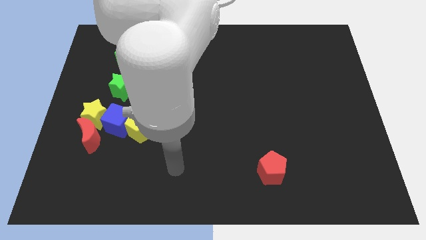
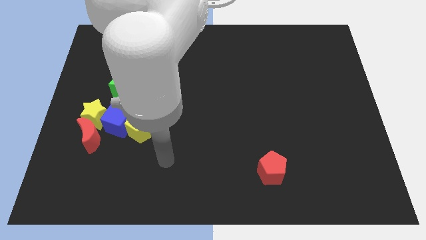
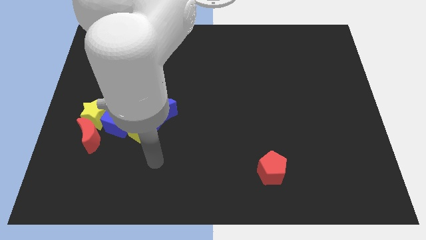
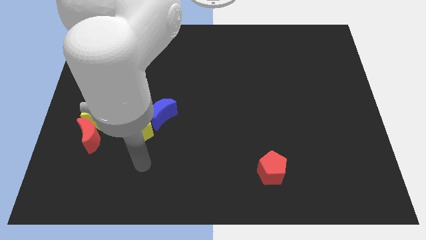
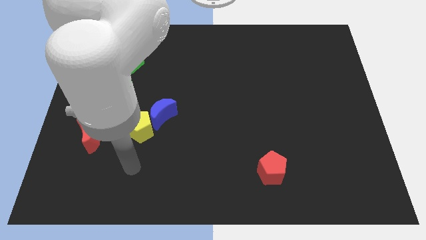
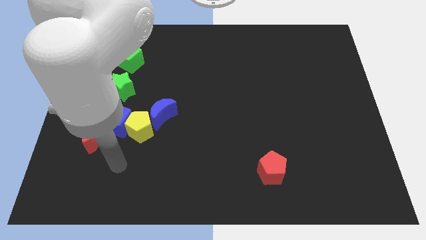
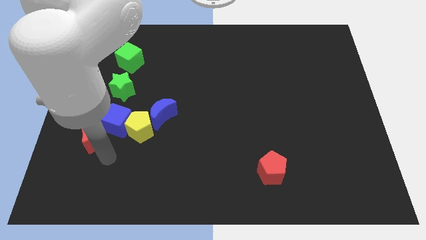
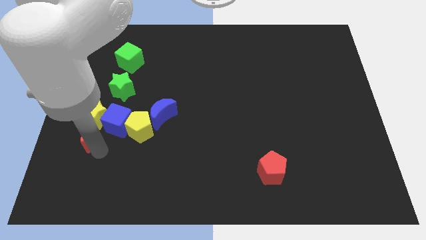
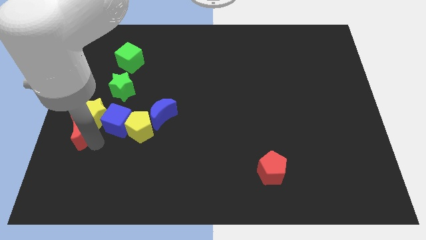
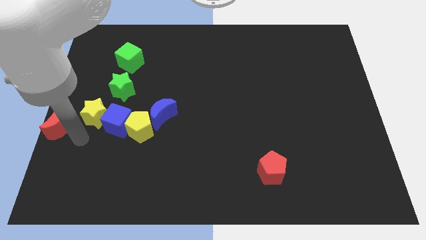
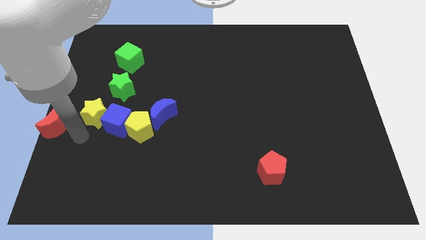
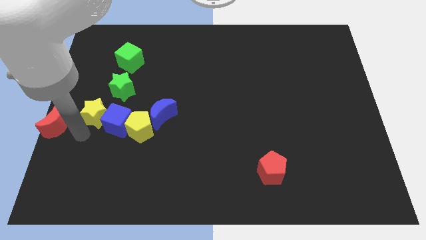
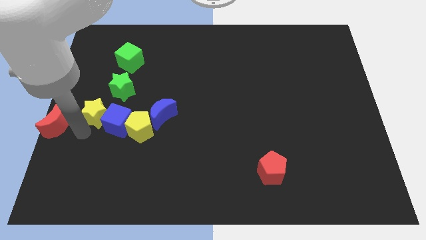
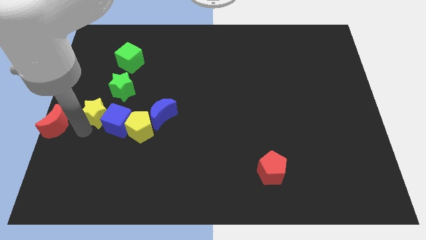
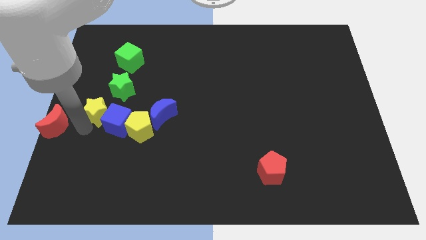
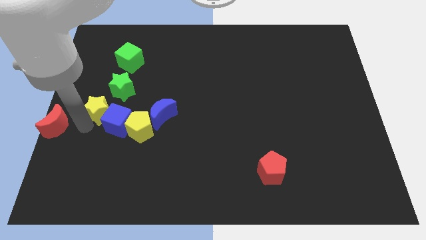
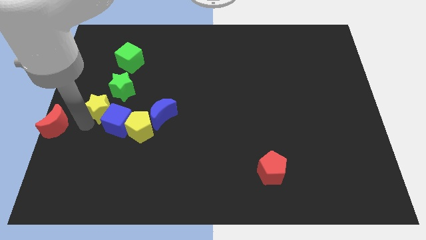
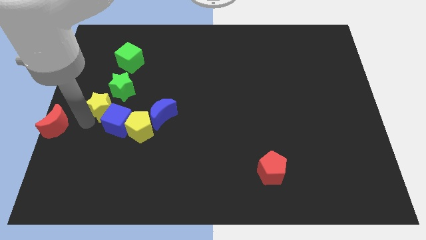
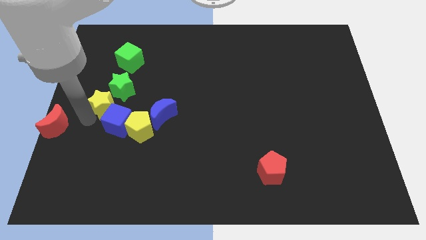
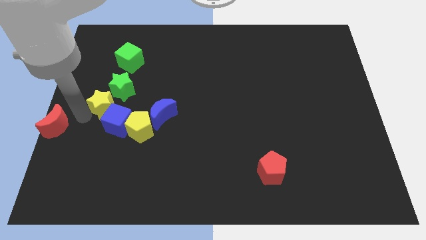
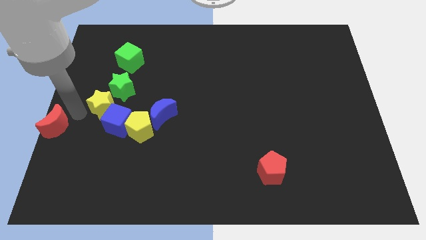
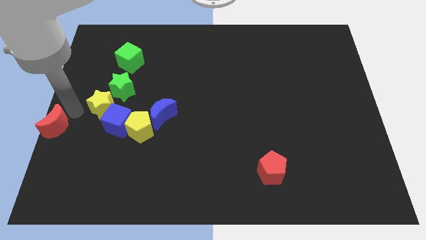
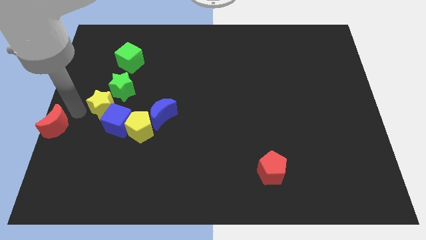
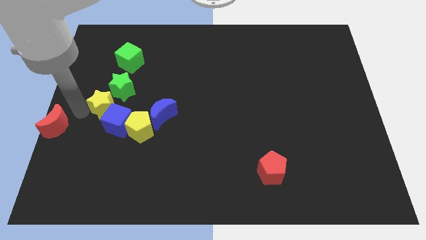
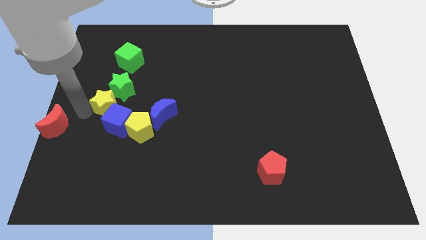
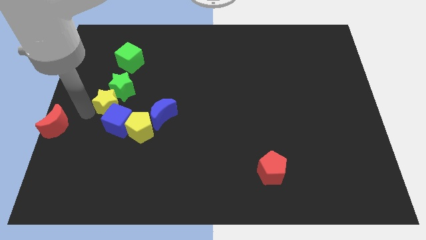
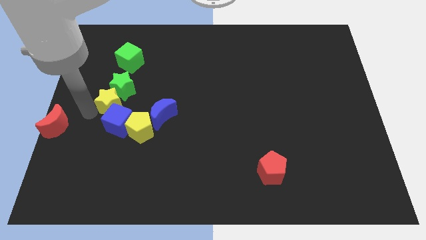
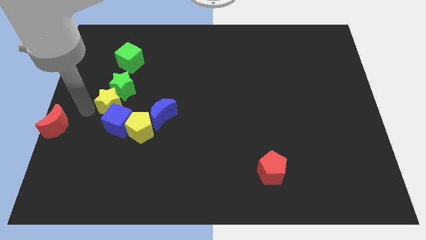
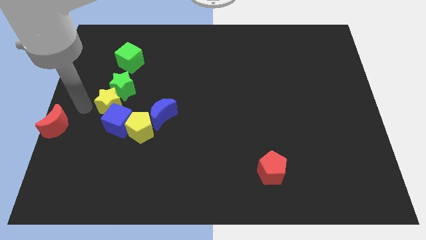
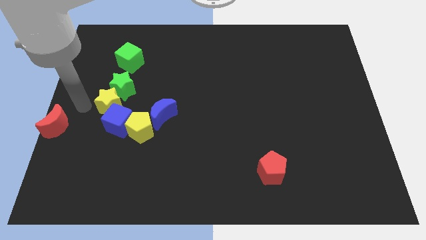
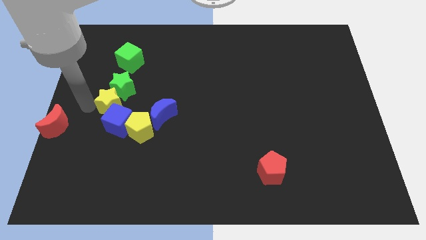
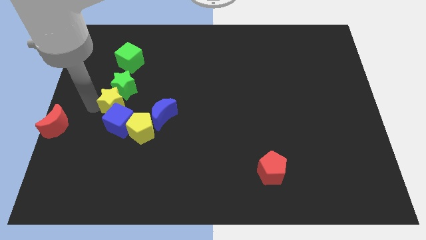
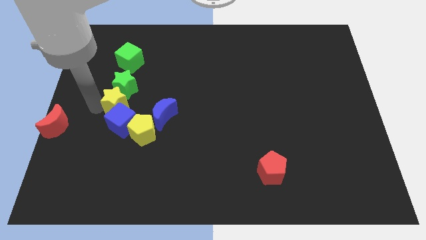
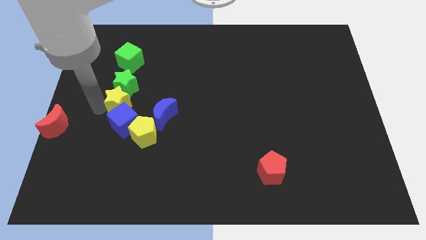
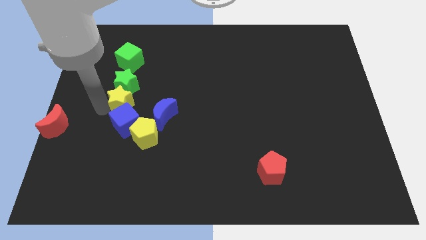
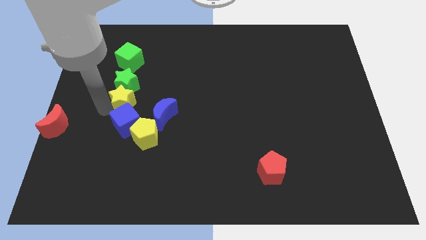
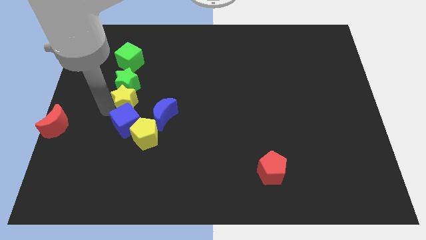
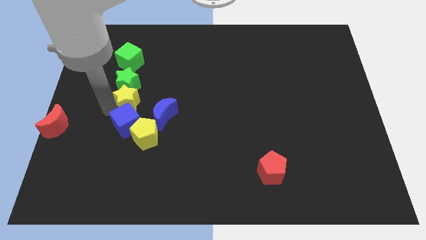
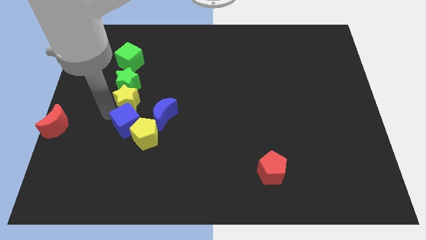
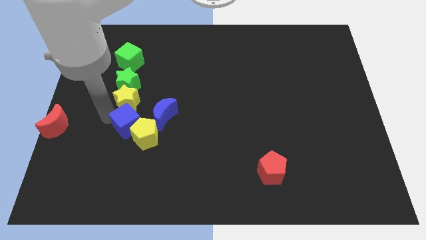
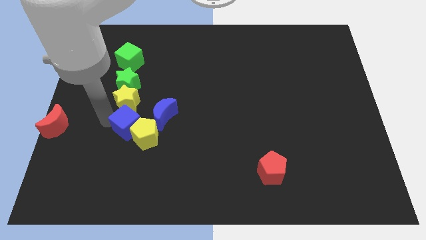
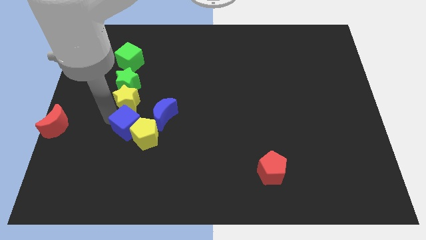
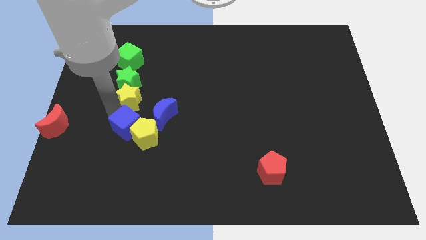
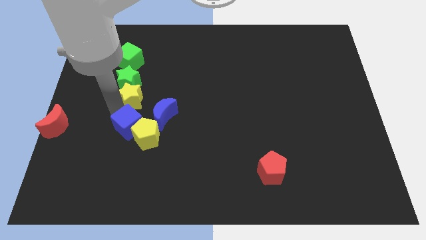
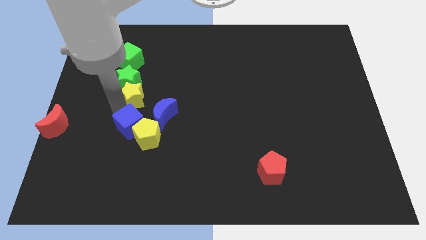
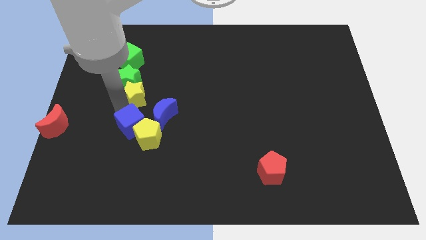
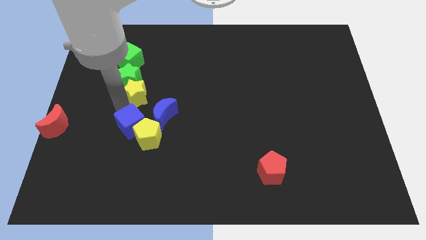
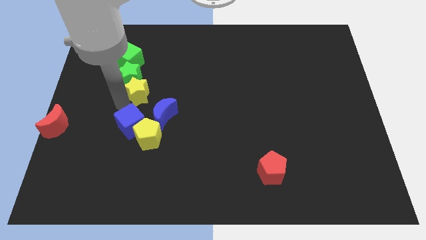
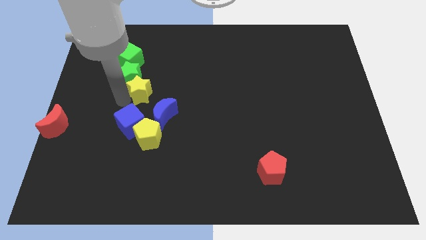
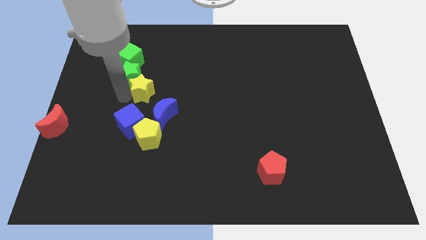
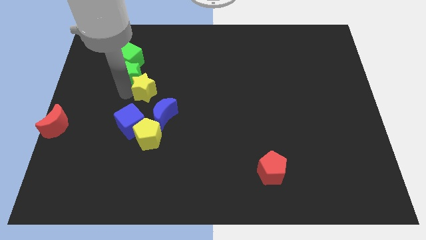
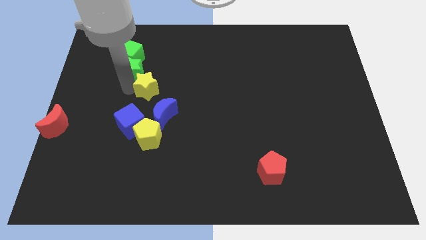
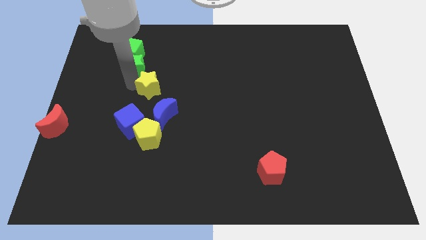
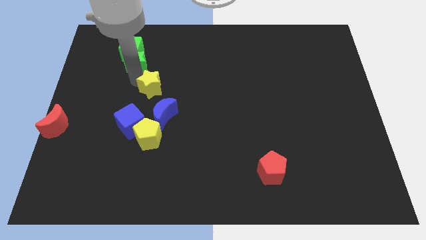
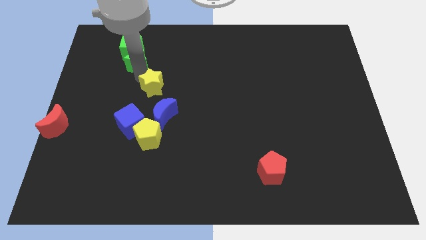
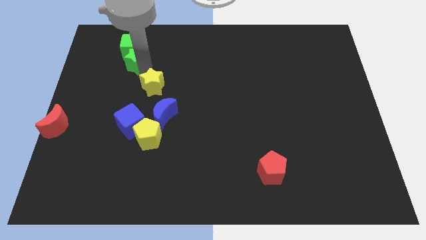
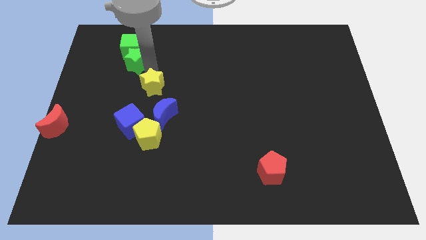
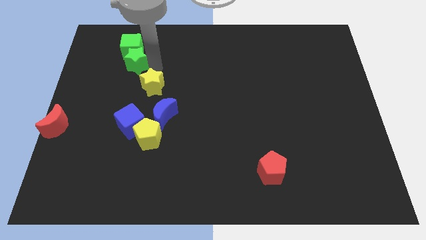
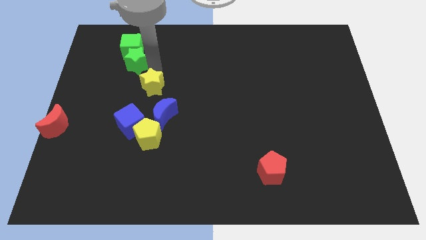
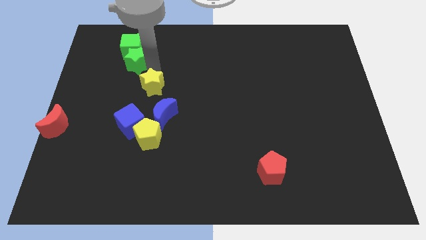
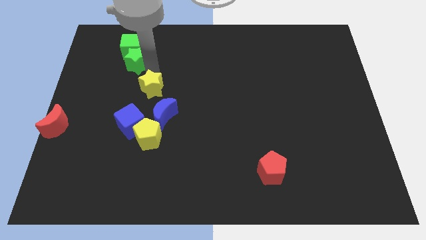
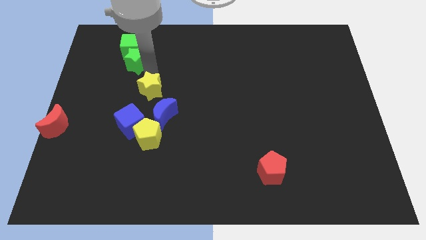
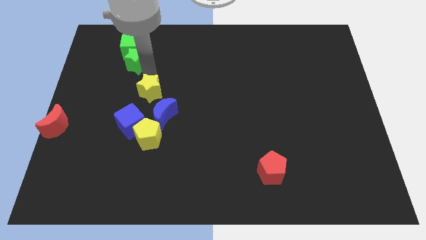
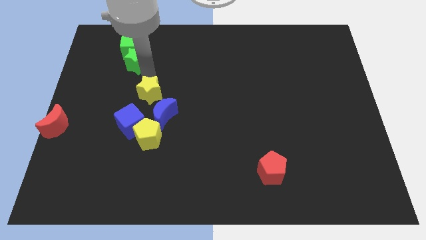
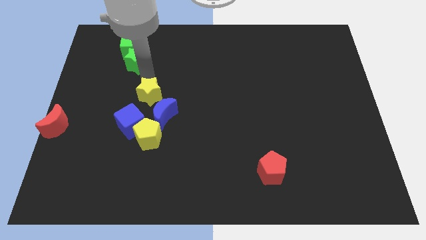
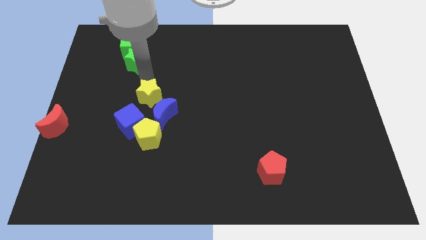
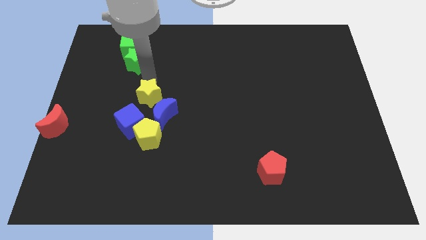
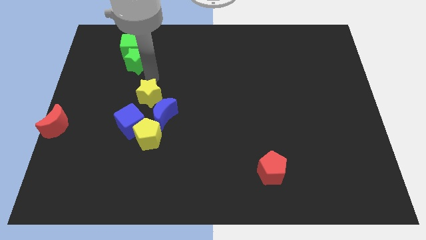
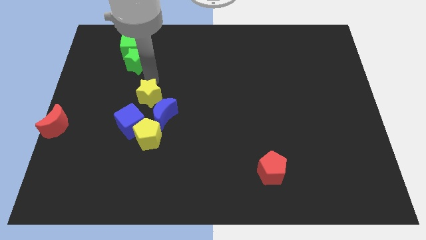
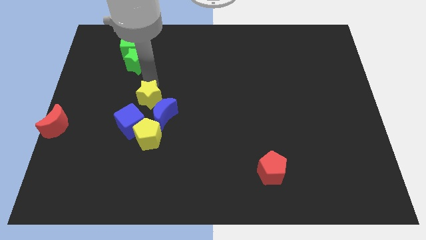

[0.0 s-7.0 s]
push the yellow star close to the blue moon

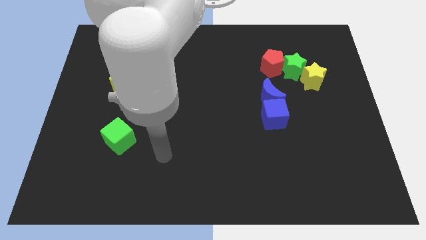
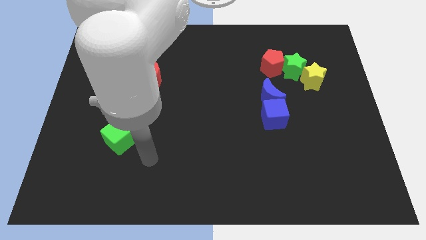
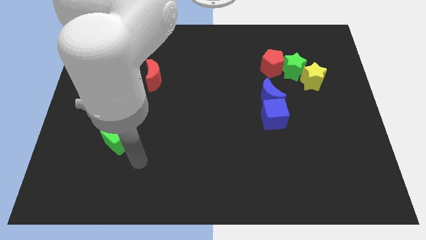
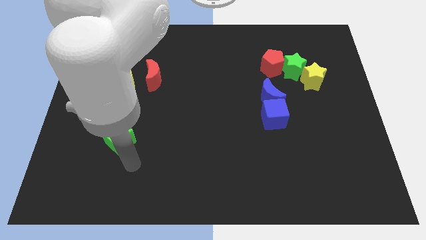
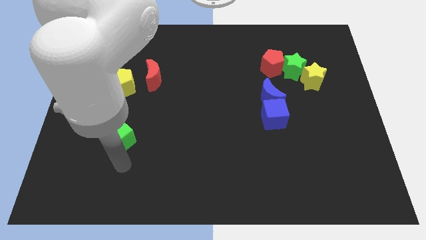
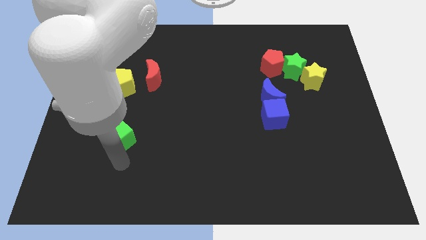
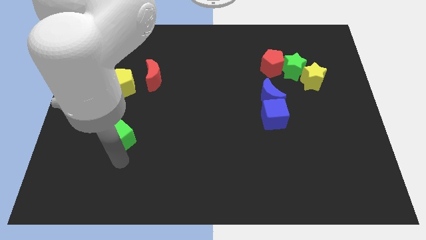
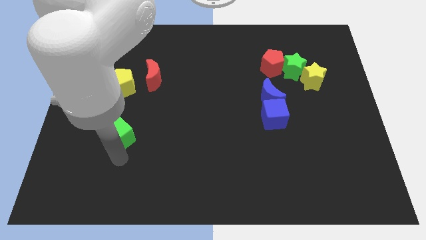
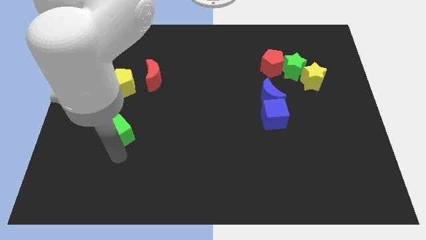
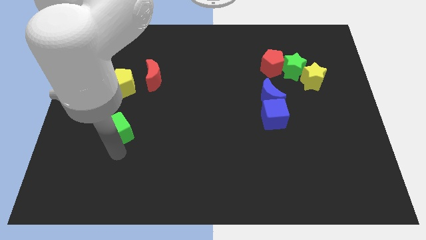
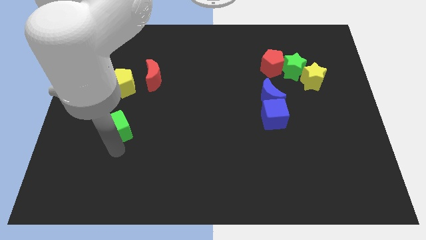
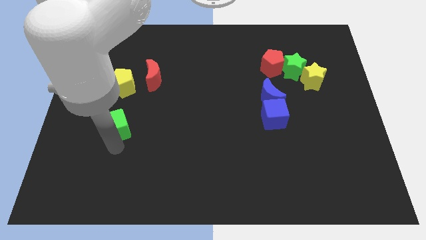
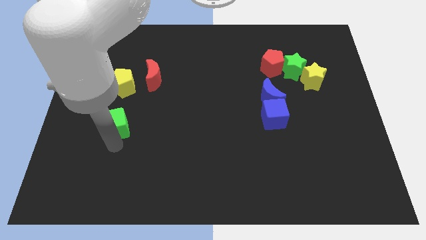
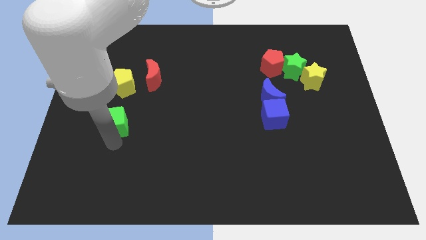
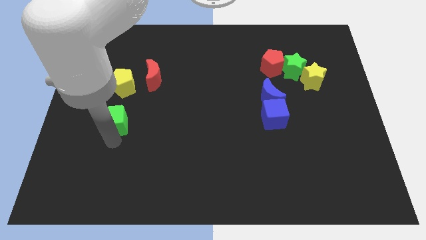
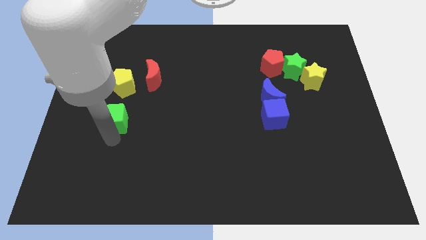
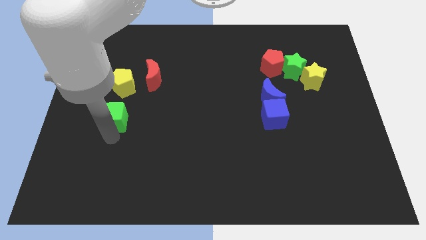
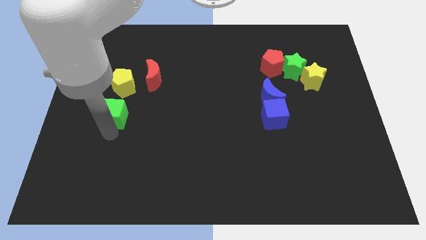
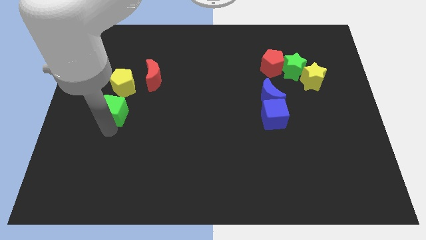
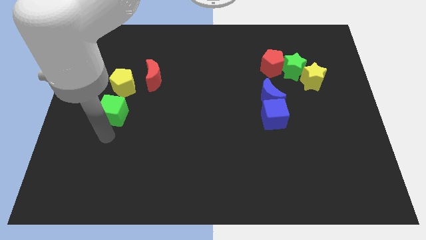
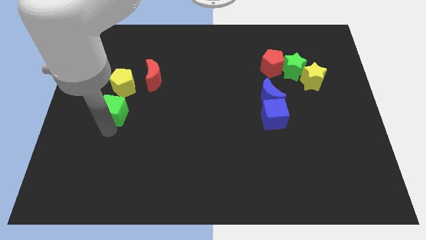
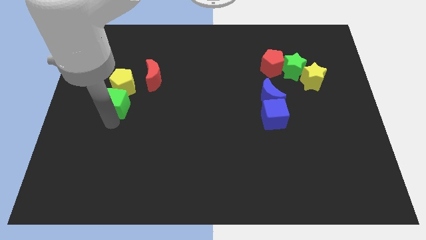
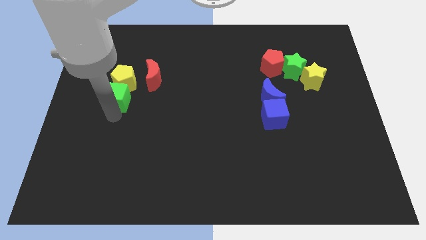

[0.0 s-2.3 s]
move the green cube towards the yellow pentagon
